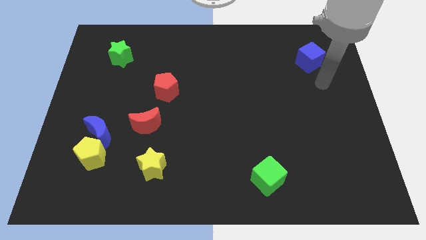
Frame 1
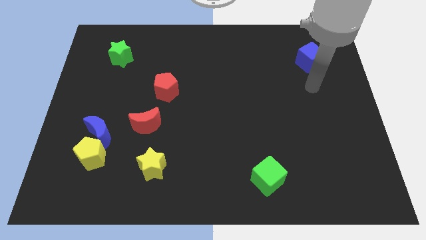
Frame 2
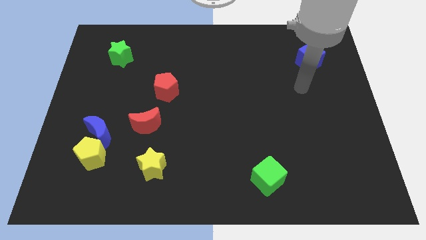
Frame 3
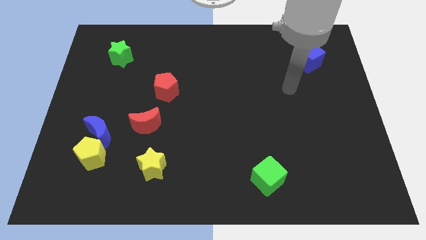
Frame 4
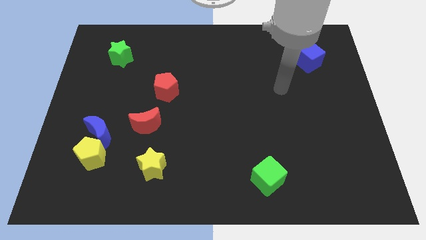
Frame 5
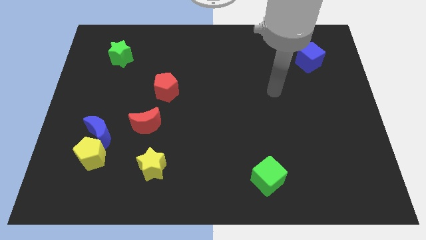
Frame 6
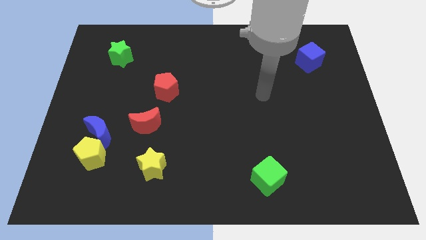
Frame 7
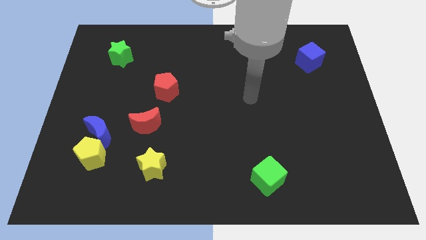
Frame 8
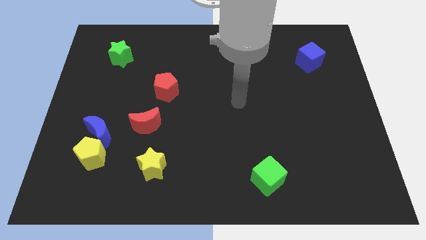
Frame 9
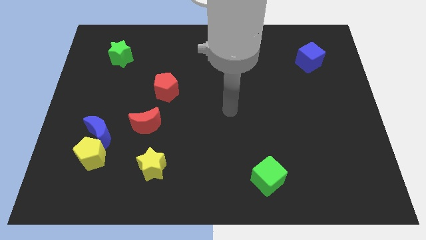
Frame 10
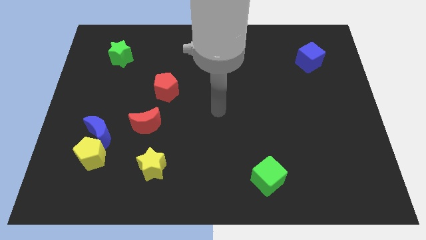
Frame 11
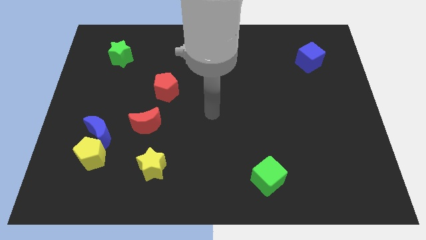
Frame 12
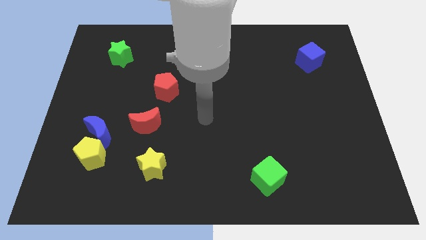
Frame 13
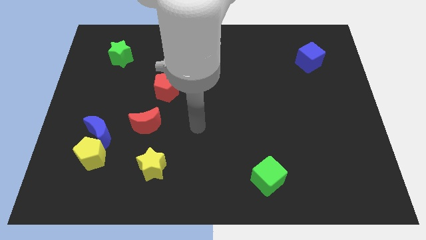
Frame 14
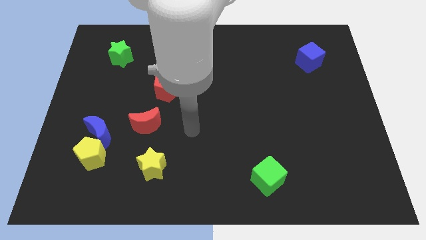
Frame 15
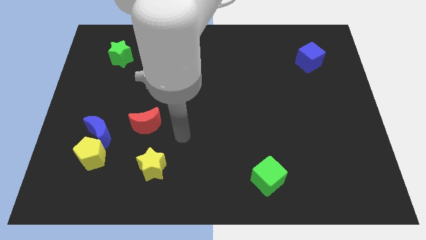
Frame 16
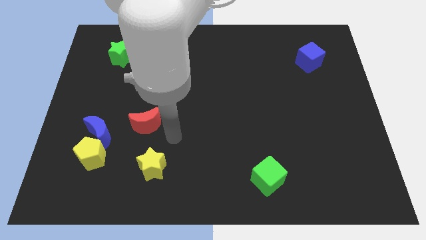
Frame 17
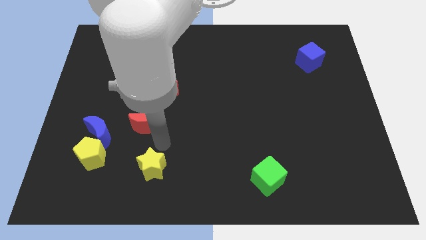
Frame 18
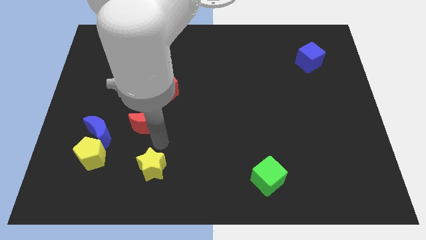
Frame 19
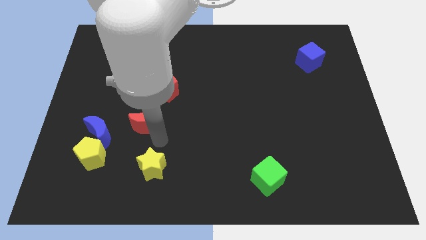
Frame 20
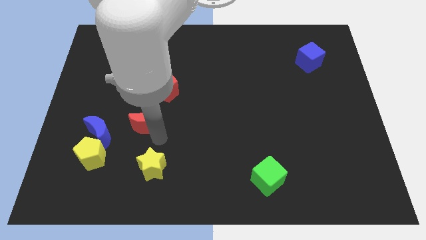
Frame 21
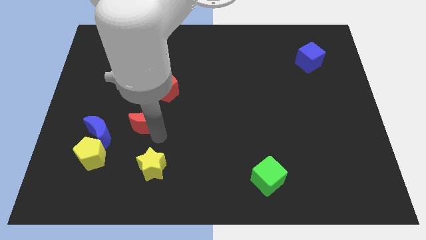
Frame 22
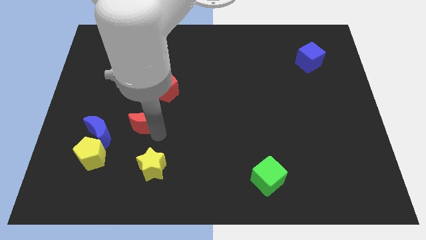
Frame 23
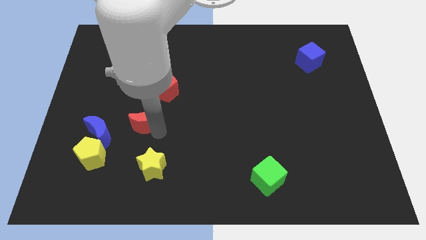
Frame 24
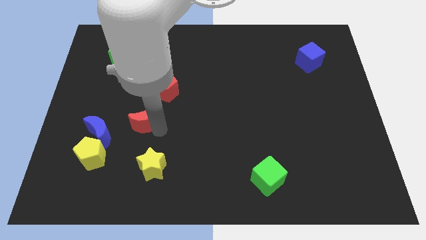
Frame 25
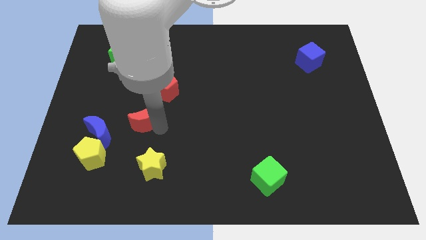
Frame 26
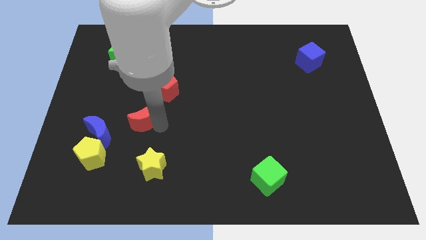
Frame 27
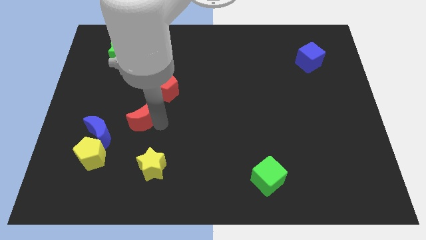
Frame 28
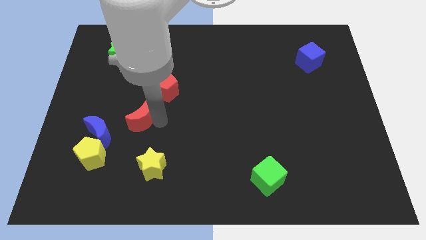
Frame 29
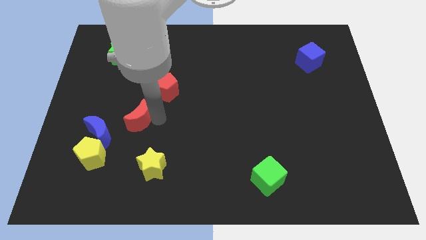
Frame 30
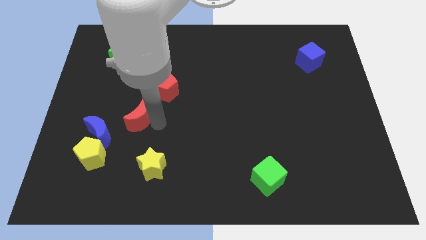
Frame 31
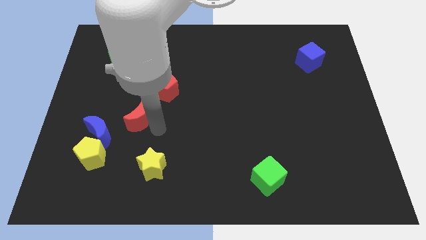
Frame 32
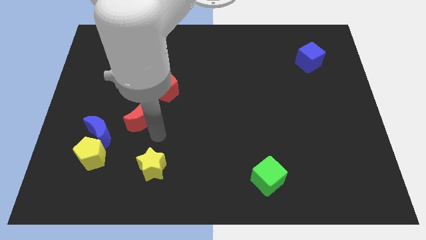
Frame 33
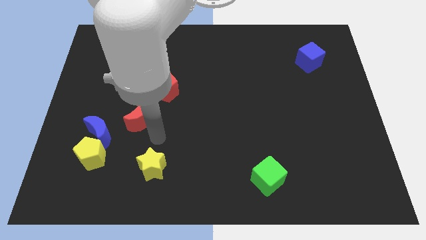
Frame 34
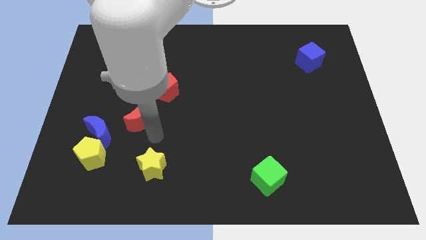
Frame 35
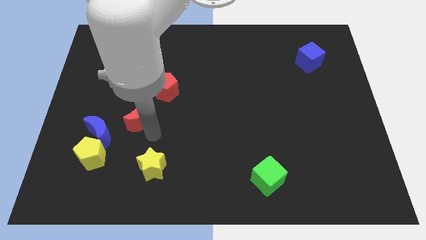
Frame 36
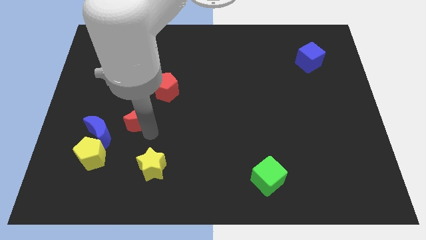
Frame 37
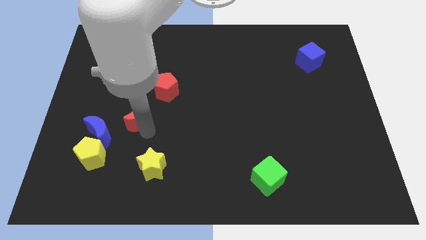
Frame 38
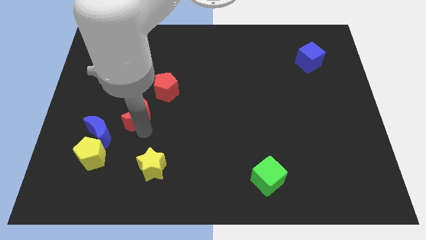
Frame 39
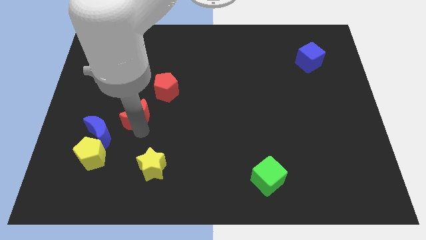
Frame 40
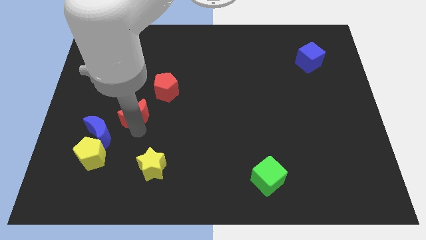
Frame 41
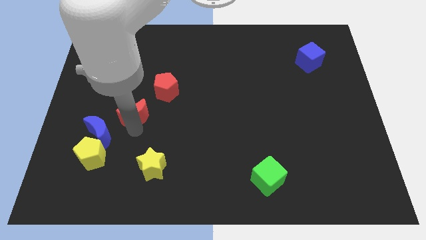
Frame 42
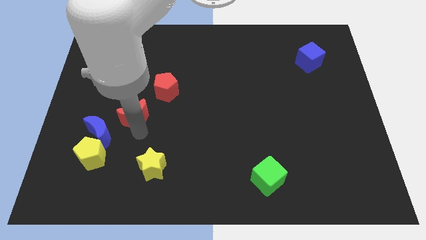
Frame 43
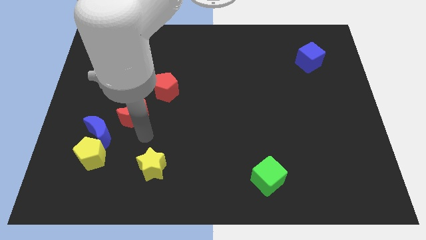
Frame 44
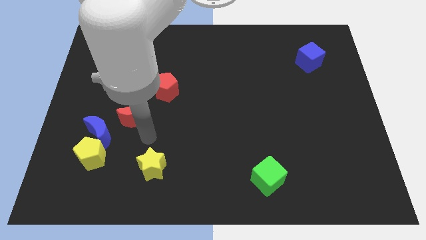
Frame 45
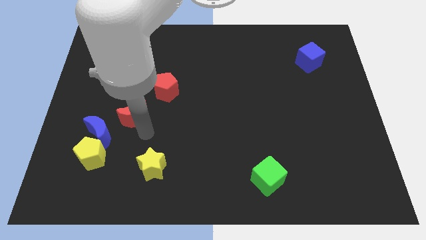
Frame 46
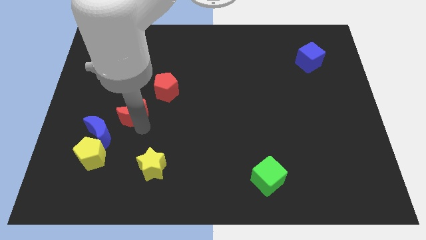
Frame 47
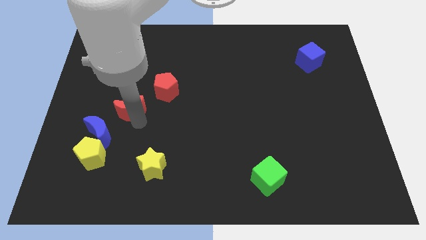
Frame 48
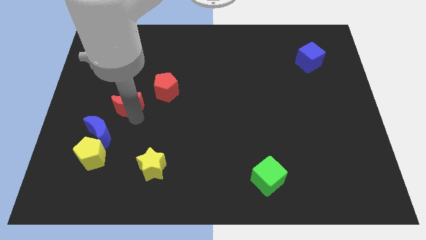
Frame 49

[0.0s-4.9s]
move the red moon diagonally up and left slightly

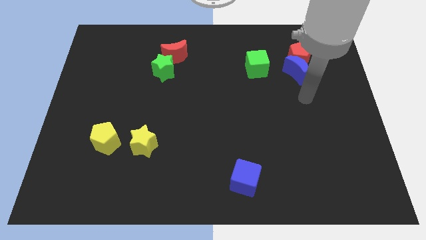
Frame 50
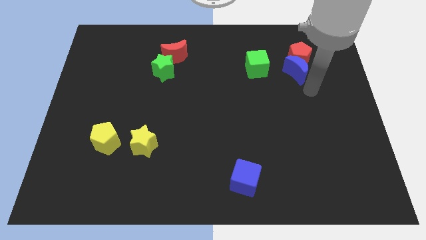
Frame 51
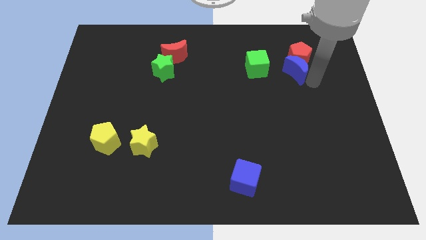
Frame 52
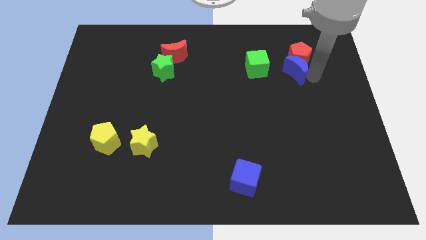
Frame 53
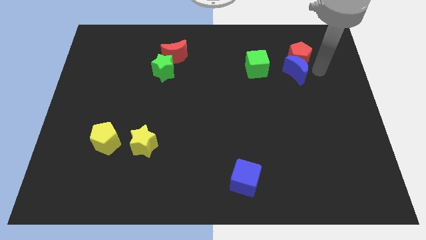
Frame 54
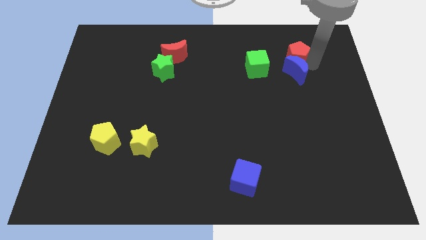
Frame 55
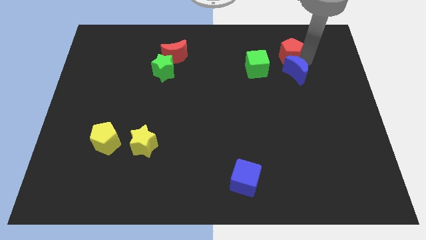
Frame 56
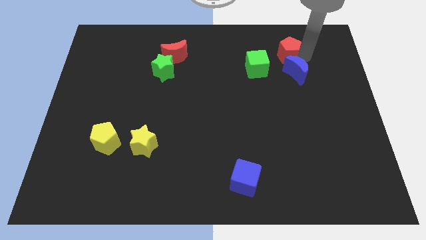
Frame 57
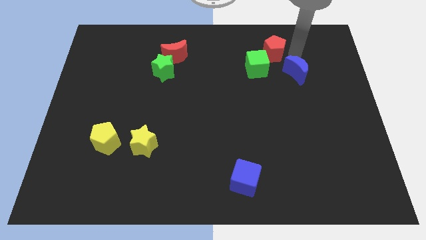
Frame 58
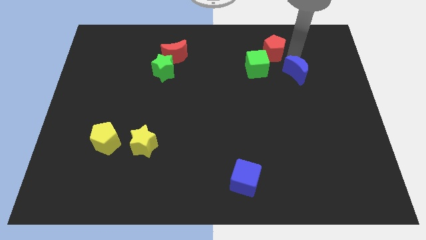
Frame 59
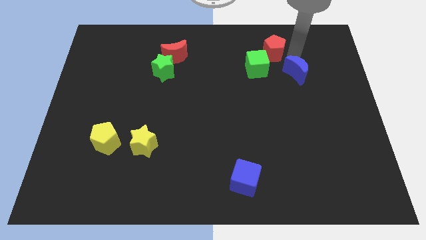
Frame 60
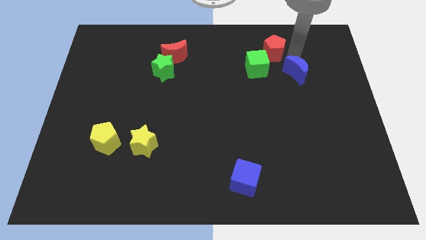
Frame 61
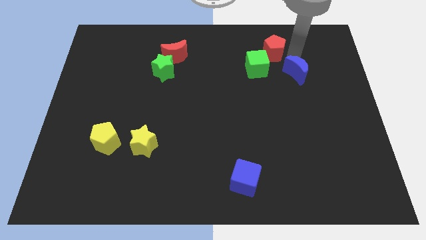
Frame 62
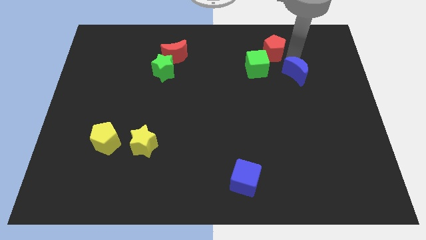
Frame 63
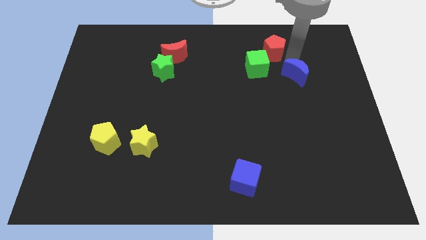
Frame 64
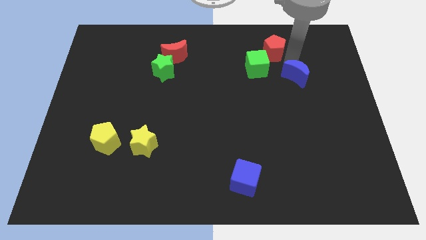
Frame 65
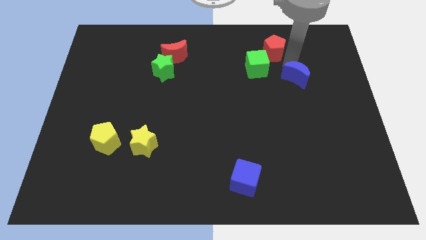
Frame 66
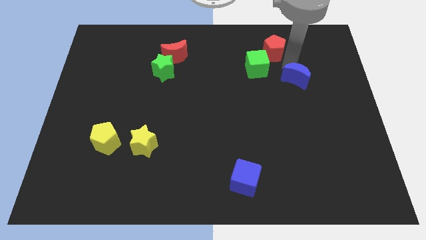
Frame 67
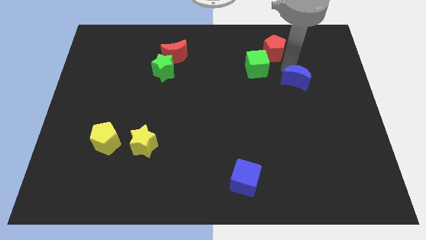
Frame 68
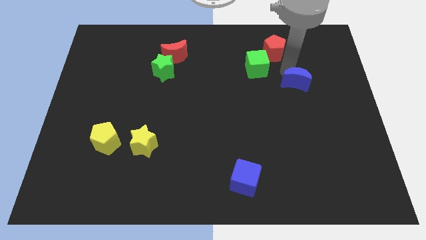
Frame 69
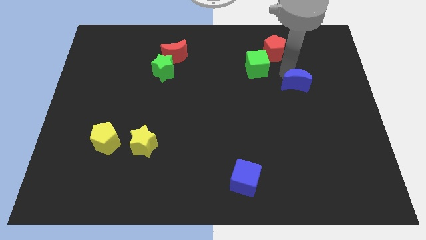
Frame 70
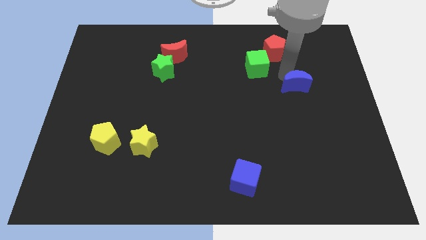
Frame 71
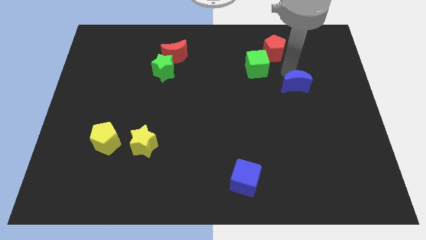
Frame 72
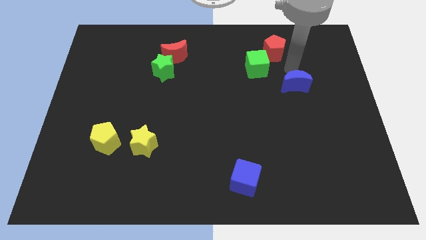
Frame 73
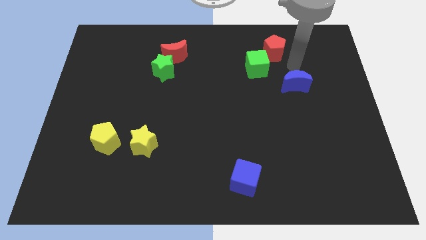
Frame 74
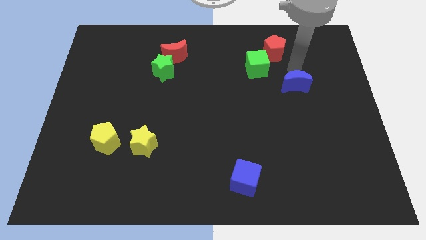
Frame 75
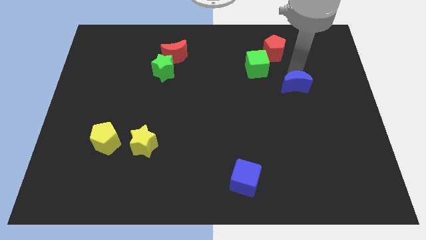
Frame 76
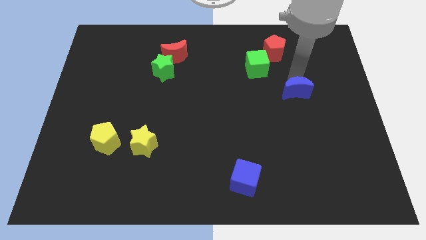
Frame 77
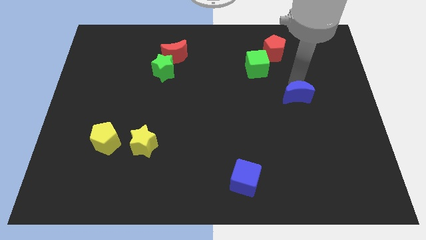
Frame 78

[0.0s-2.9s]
move the blue moon somewhat downwards
